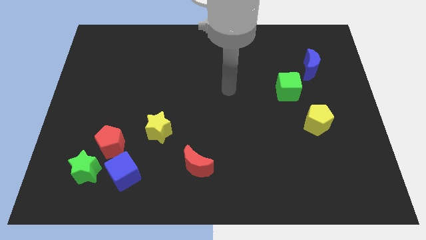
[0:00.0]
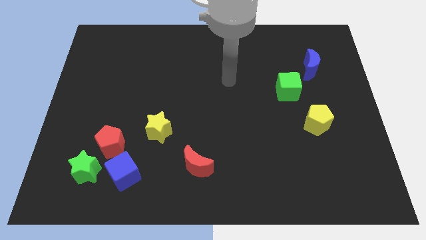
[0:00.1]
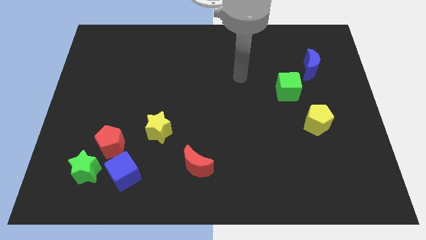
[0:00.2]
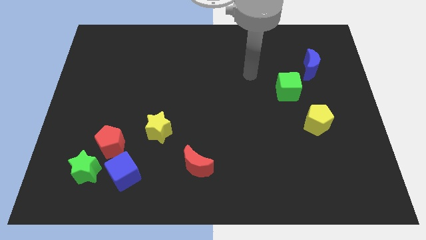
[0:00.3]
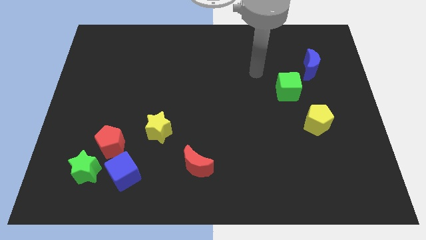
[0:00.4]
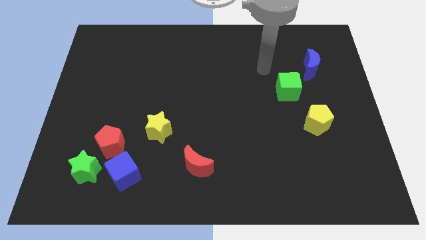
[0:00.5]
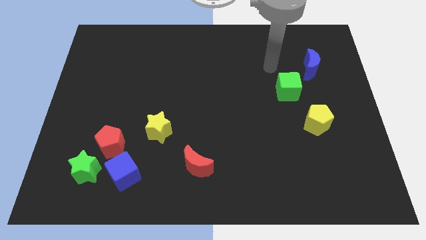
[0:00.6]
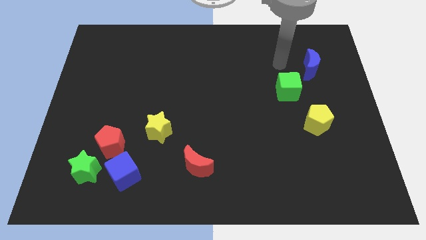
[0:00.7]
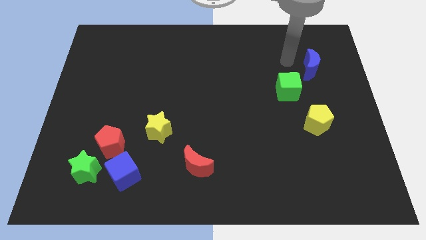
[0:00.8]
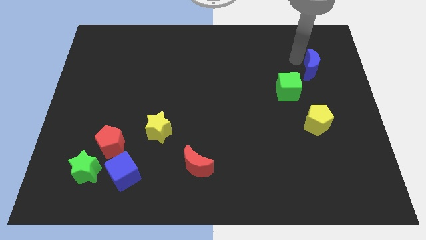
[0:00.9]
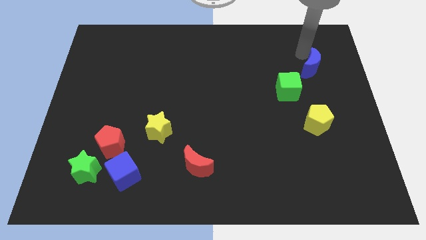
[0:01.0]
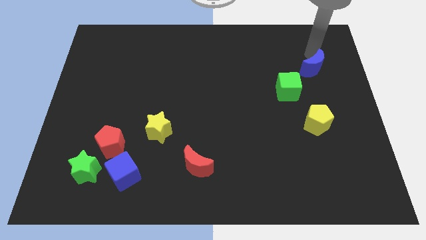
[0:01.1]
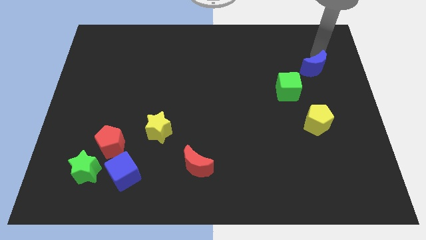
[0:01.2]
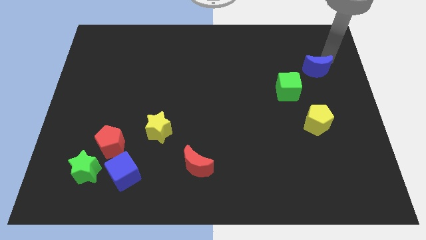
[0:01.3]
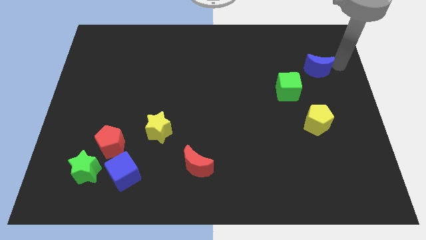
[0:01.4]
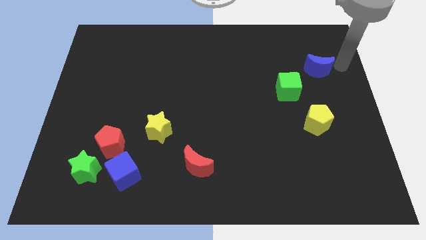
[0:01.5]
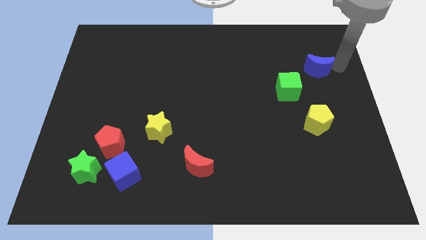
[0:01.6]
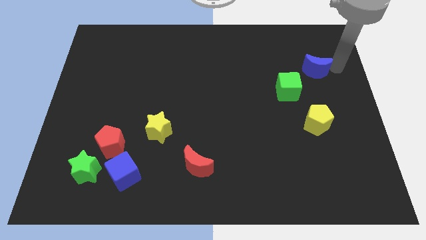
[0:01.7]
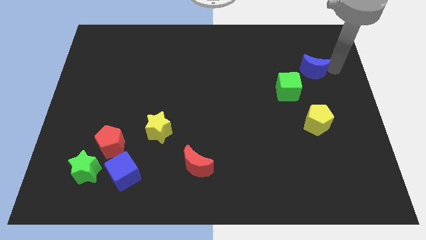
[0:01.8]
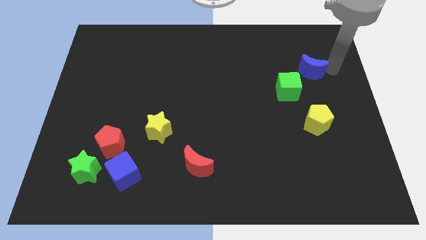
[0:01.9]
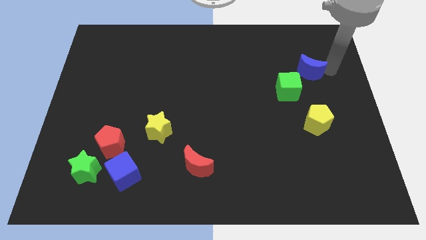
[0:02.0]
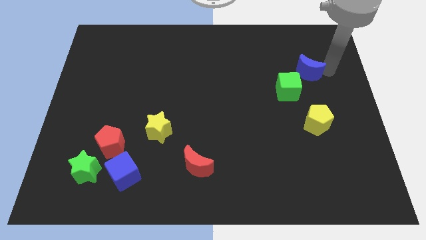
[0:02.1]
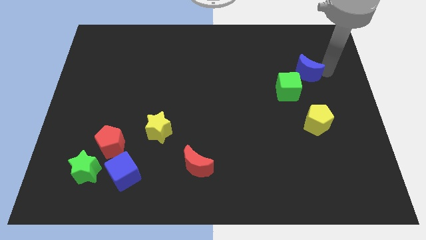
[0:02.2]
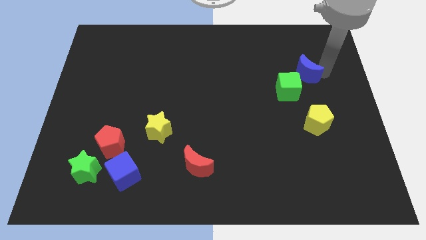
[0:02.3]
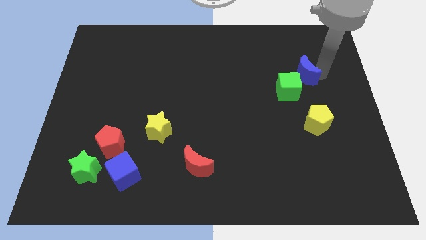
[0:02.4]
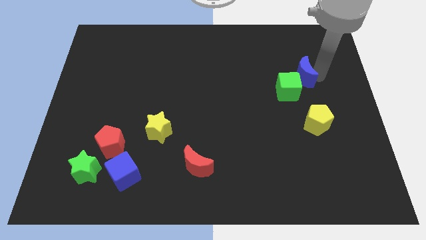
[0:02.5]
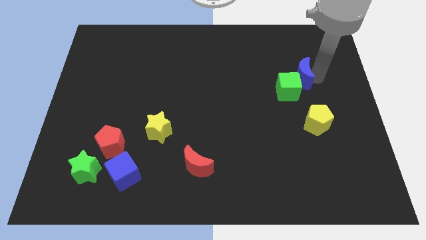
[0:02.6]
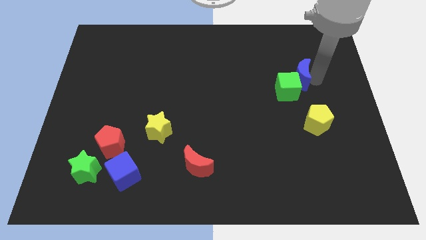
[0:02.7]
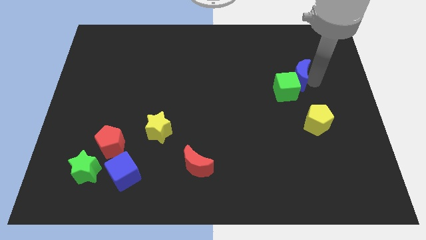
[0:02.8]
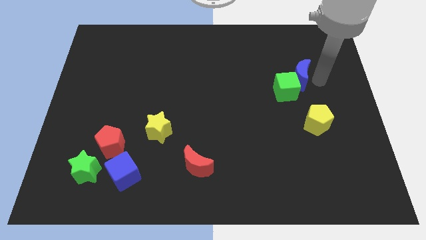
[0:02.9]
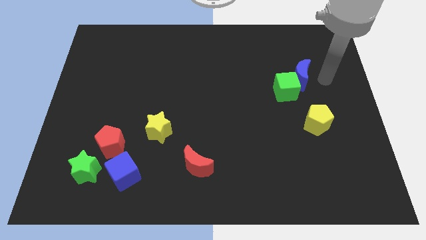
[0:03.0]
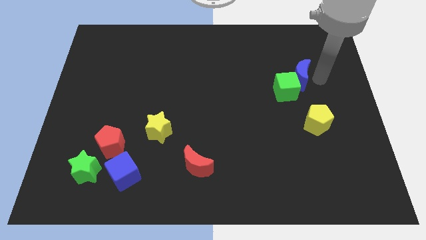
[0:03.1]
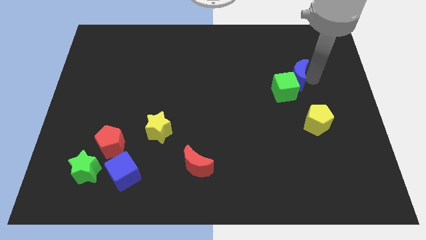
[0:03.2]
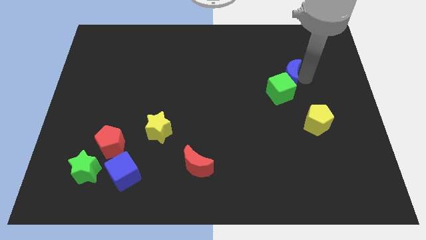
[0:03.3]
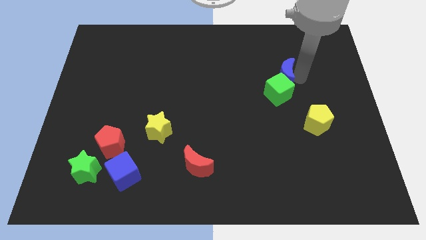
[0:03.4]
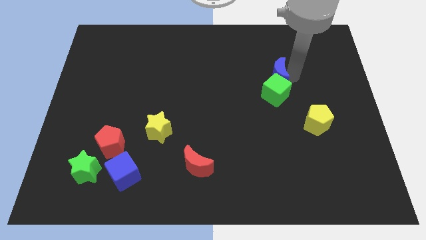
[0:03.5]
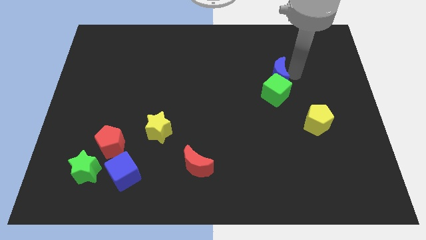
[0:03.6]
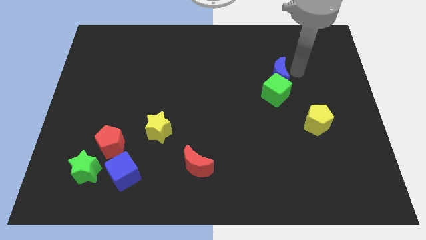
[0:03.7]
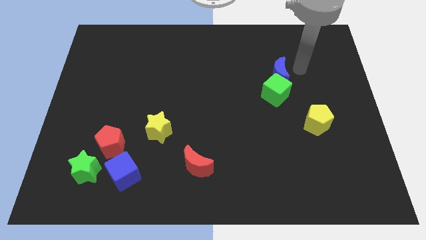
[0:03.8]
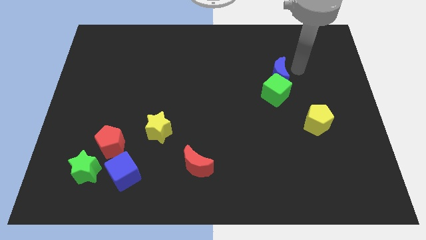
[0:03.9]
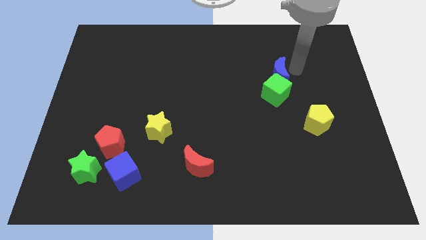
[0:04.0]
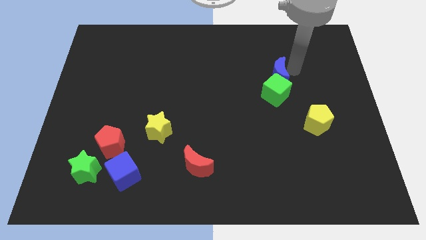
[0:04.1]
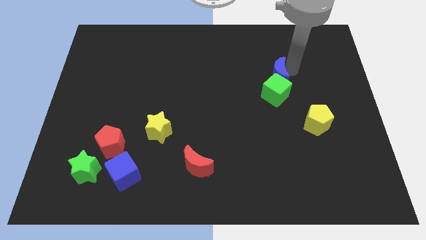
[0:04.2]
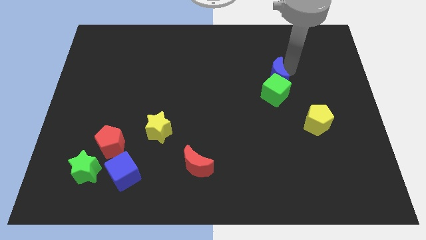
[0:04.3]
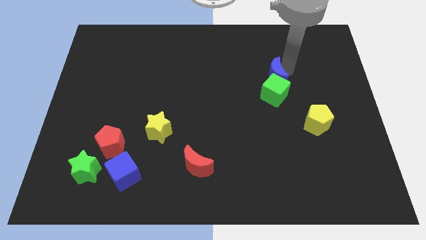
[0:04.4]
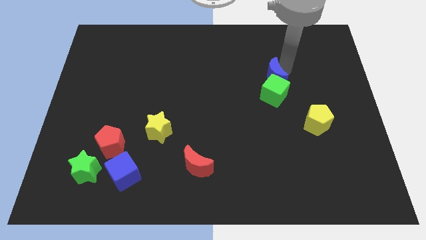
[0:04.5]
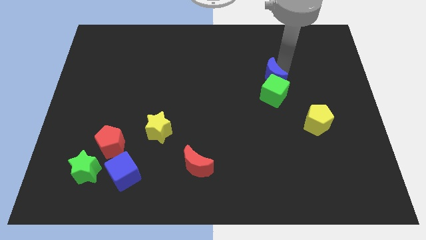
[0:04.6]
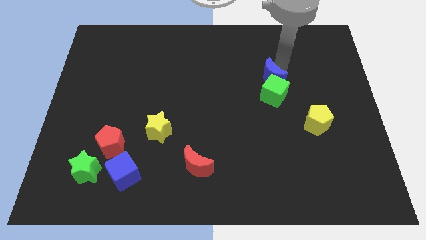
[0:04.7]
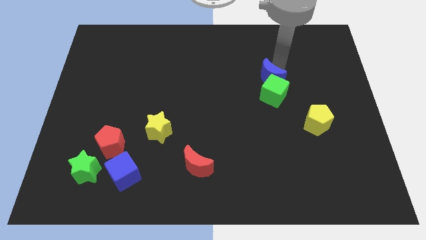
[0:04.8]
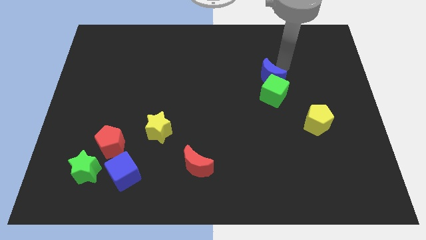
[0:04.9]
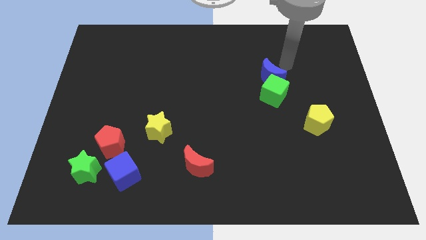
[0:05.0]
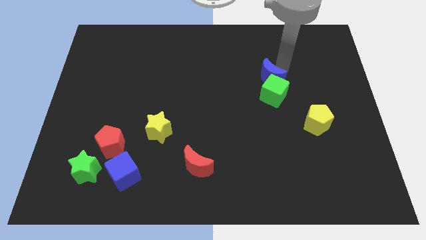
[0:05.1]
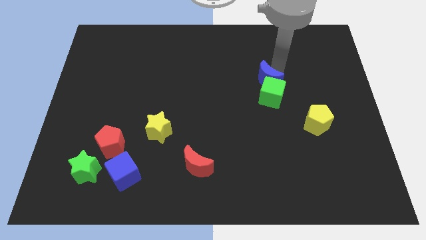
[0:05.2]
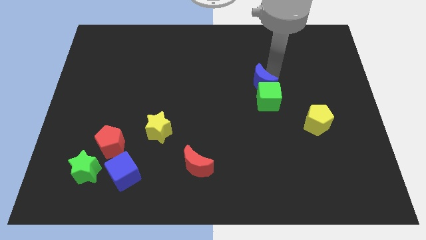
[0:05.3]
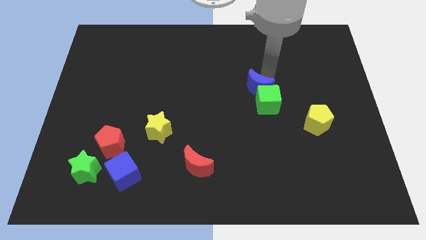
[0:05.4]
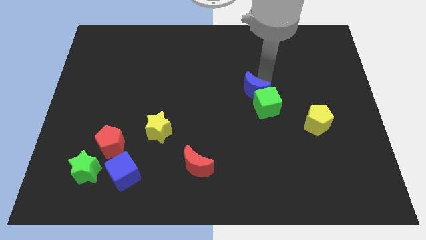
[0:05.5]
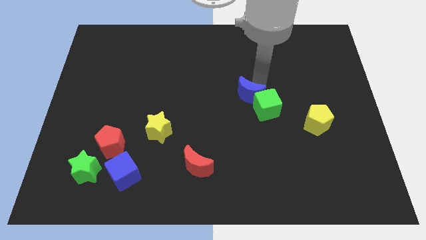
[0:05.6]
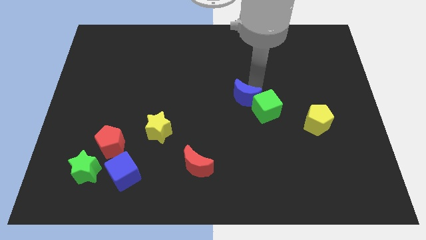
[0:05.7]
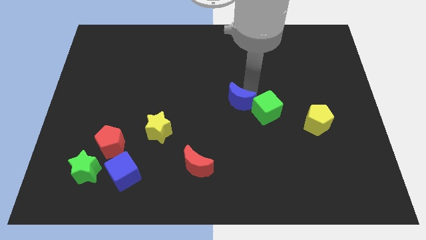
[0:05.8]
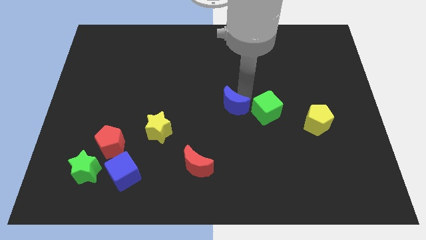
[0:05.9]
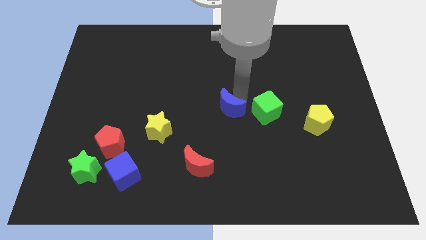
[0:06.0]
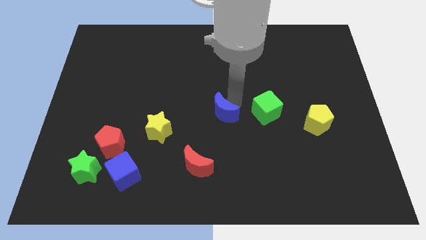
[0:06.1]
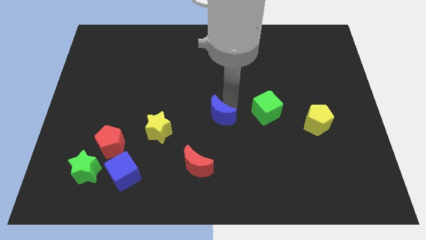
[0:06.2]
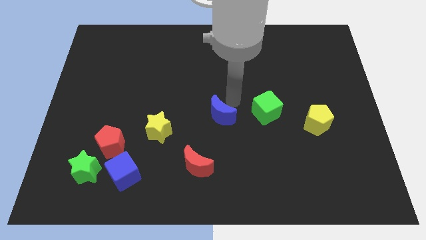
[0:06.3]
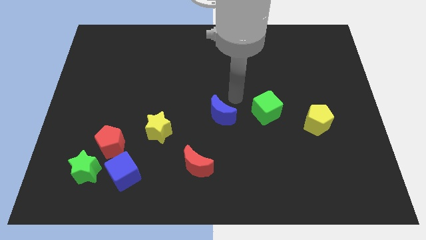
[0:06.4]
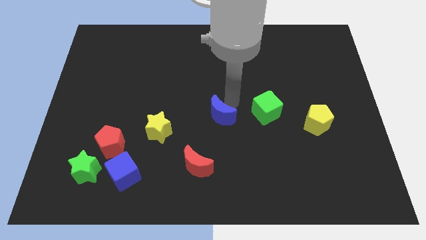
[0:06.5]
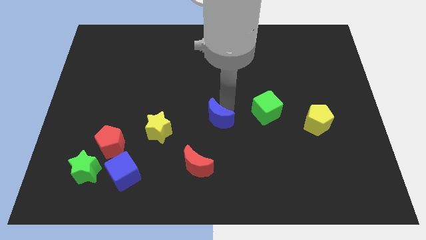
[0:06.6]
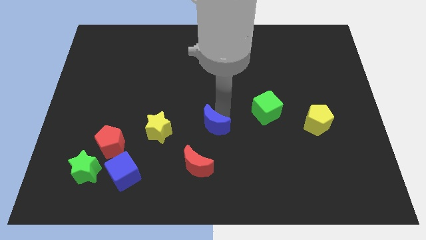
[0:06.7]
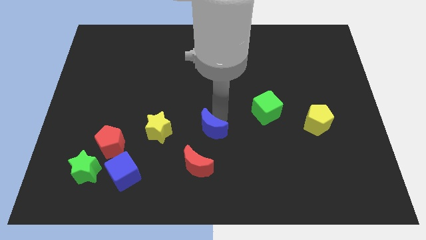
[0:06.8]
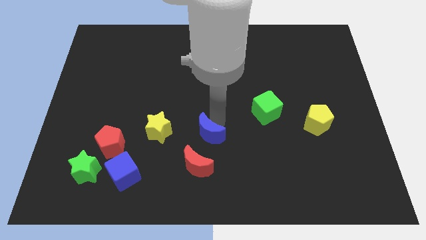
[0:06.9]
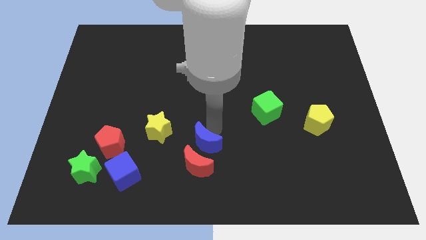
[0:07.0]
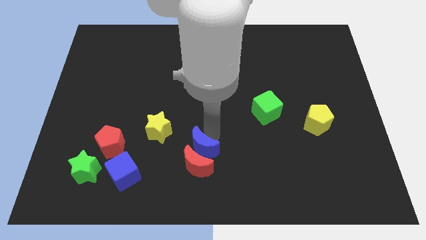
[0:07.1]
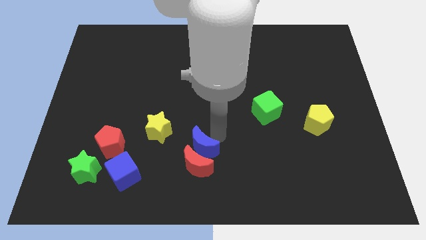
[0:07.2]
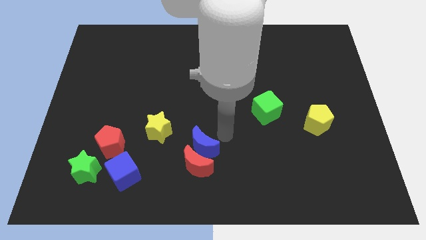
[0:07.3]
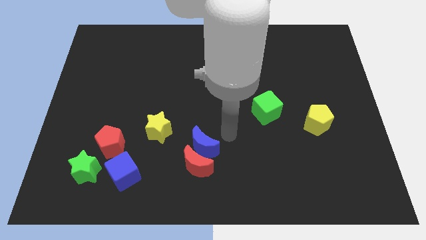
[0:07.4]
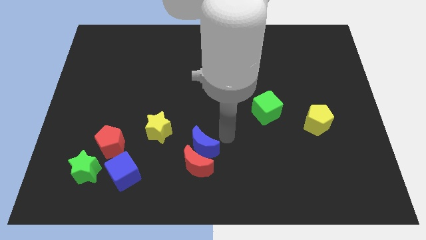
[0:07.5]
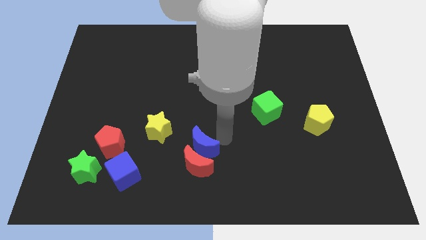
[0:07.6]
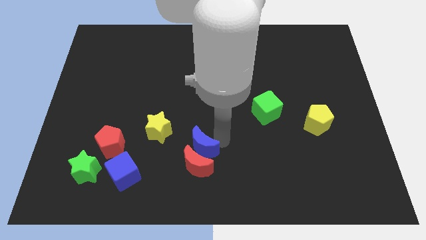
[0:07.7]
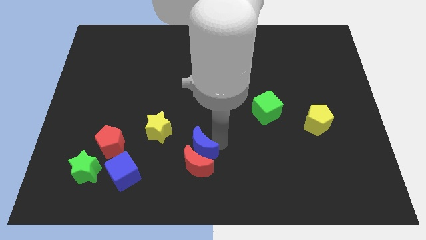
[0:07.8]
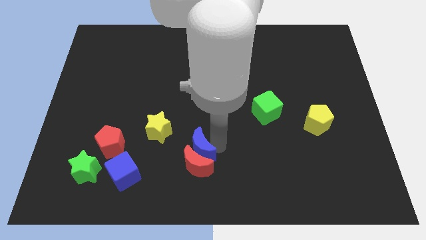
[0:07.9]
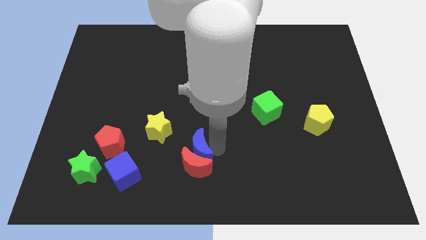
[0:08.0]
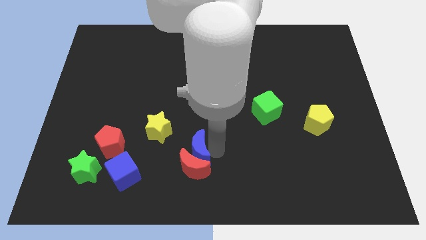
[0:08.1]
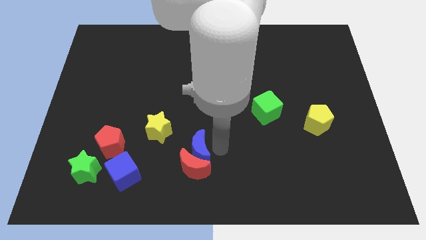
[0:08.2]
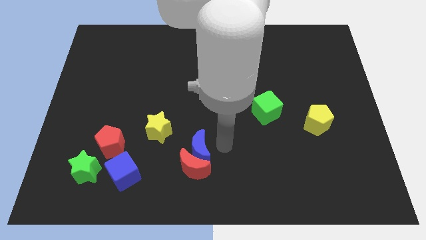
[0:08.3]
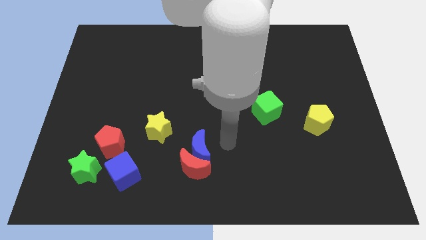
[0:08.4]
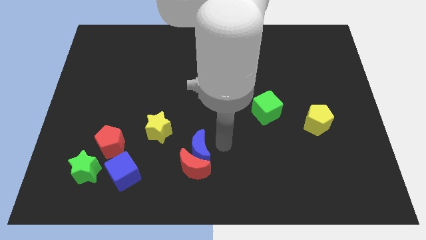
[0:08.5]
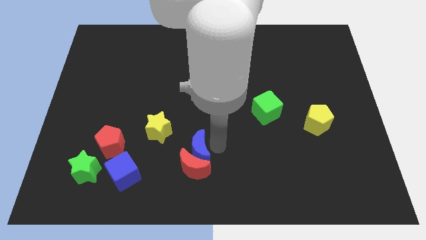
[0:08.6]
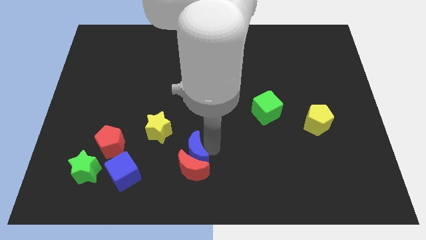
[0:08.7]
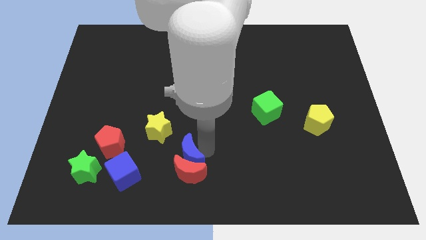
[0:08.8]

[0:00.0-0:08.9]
slide the blue moon just right of the blue cube
